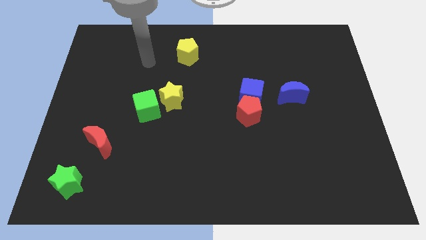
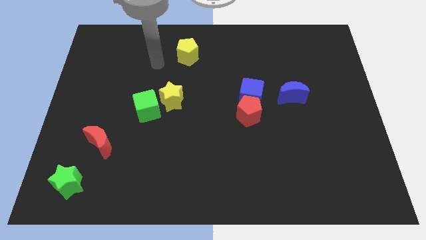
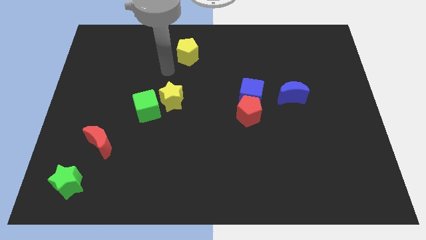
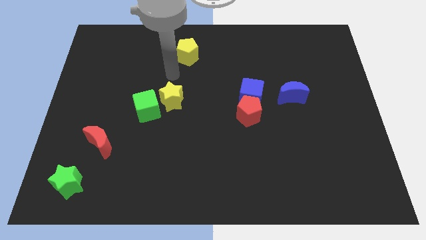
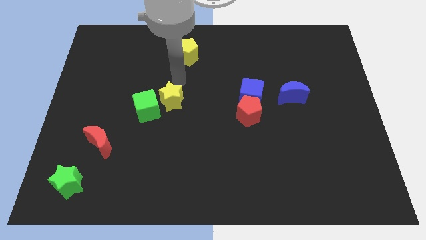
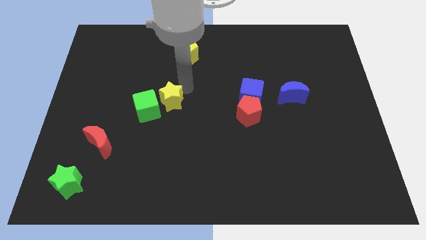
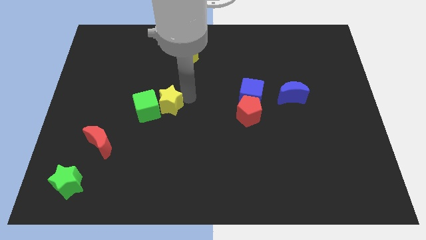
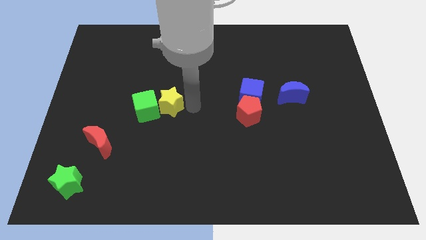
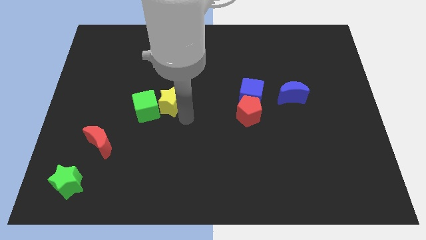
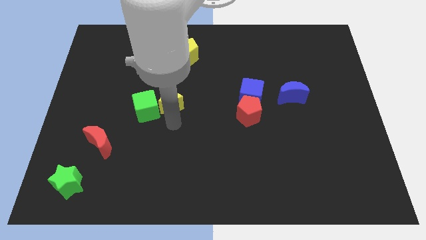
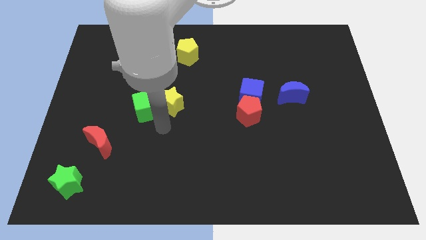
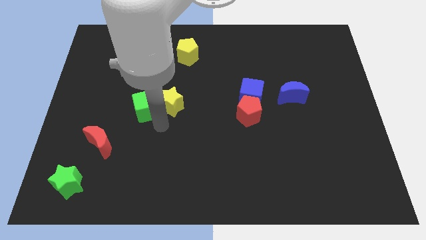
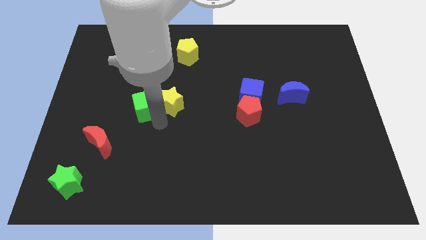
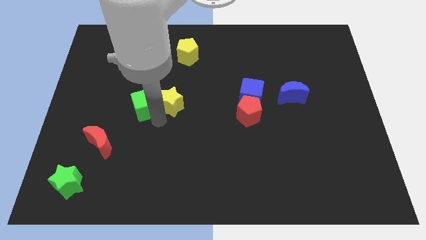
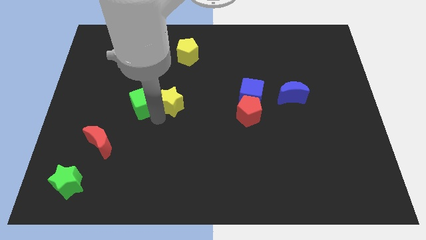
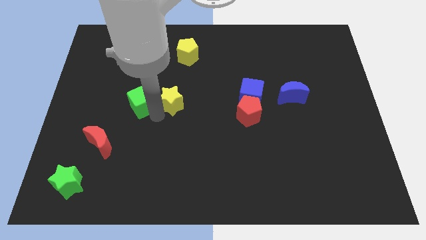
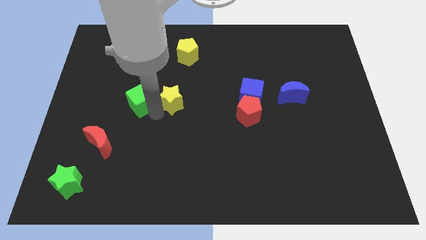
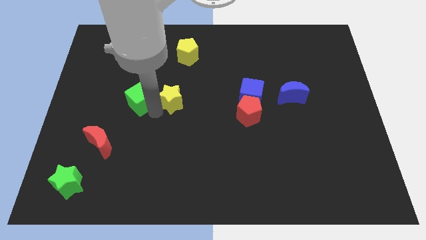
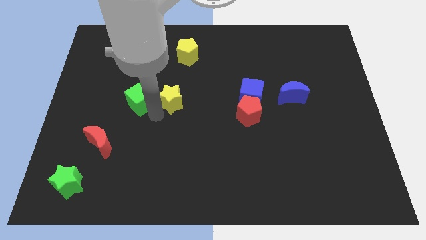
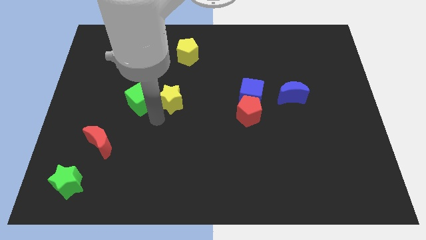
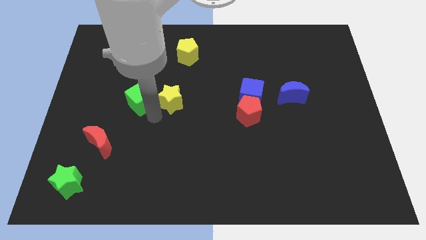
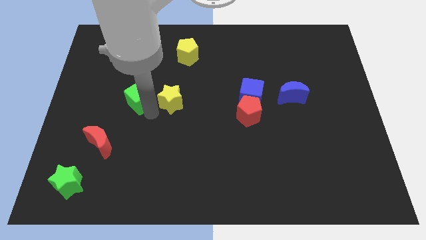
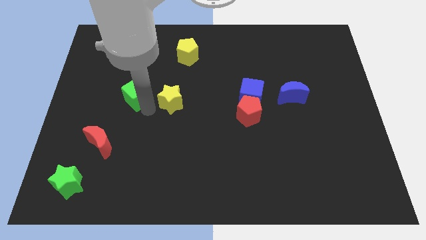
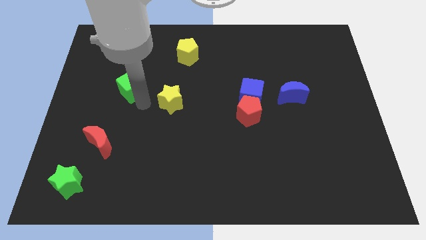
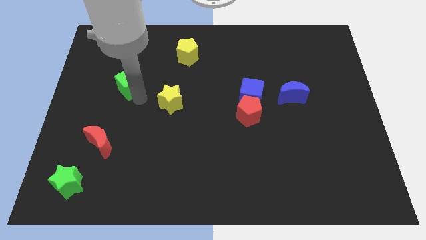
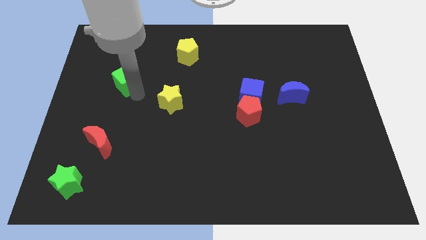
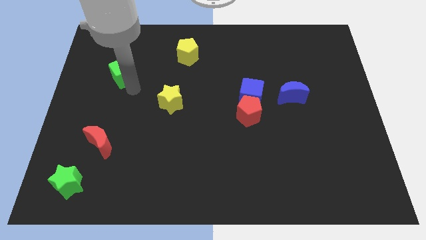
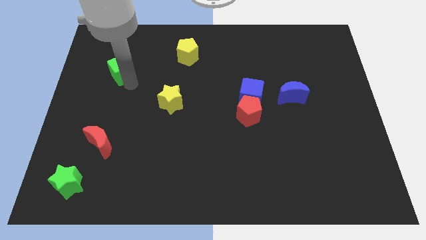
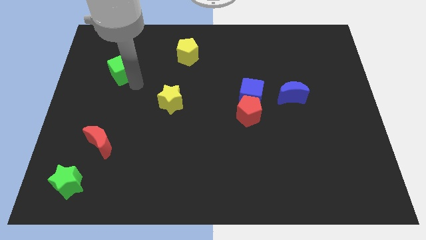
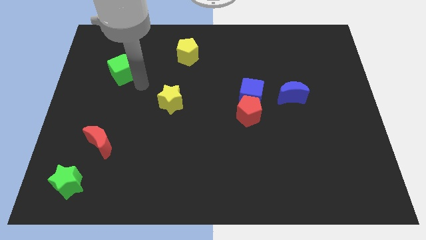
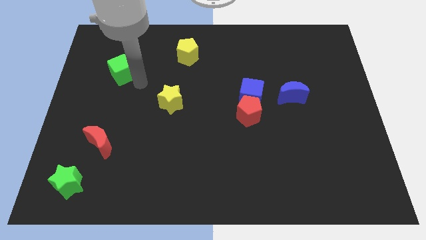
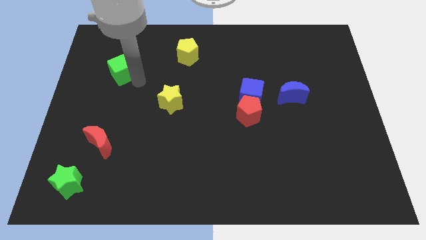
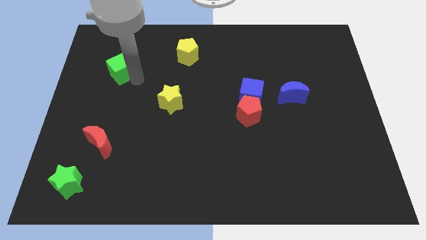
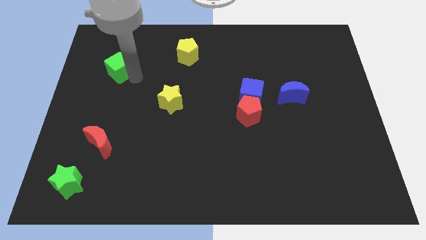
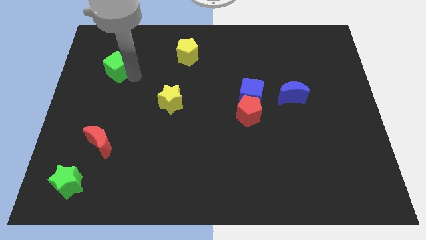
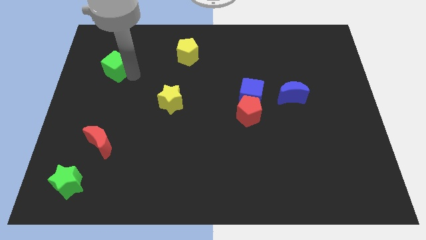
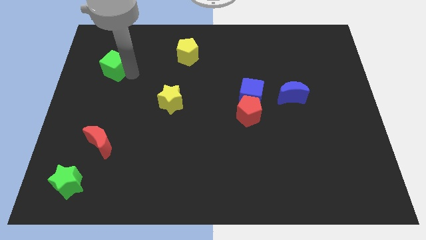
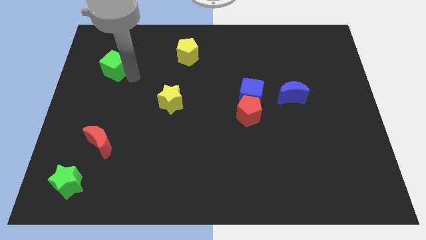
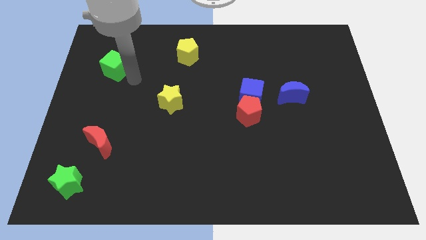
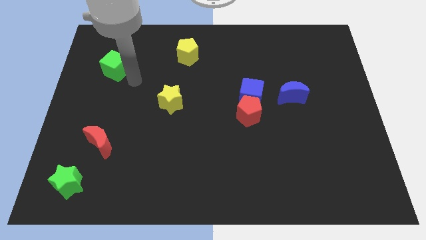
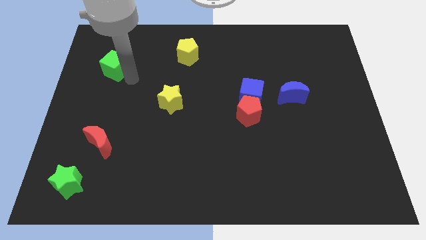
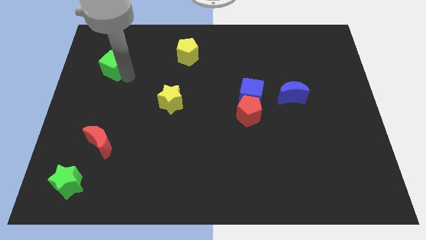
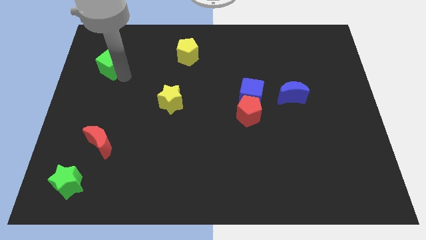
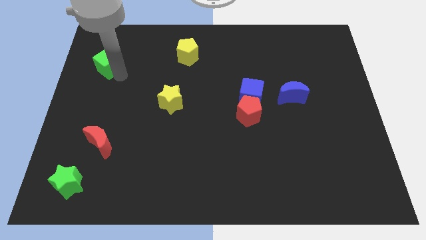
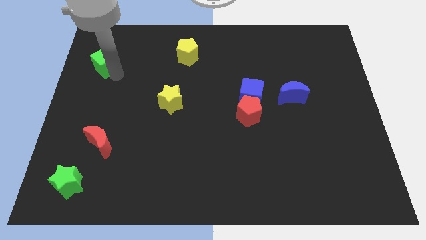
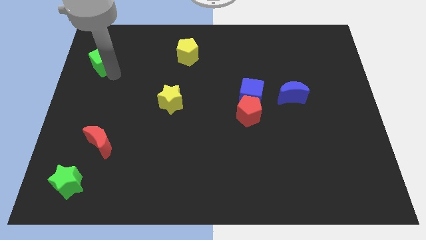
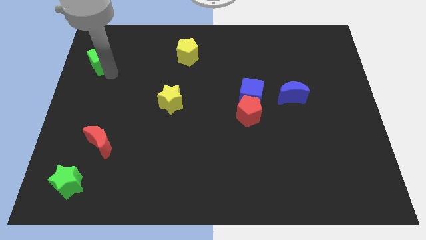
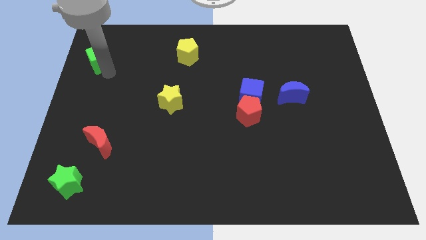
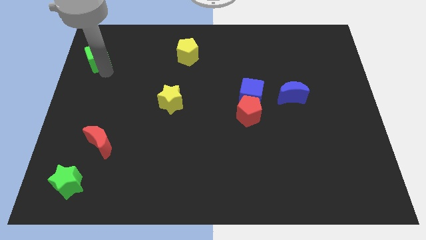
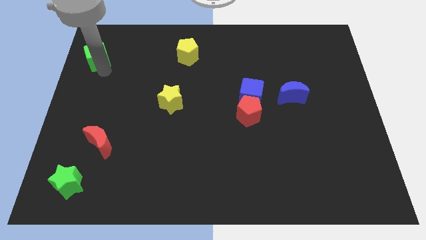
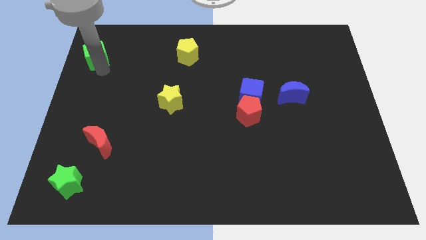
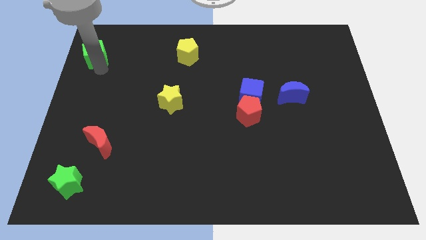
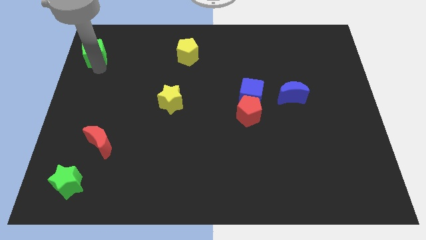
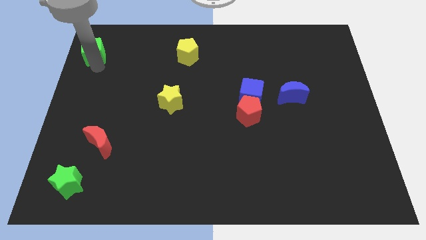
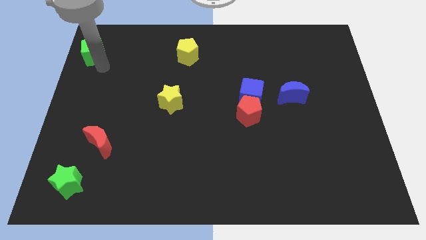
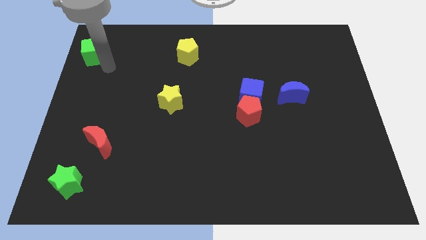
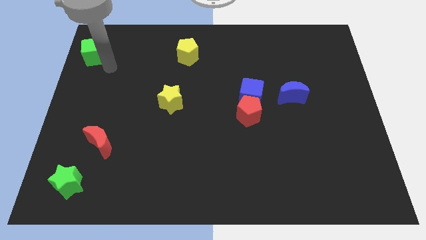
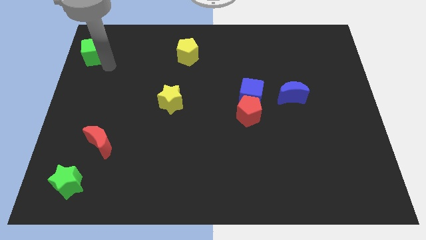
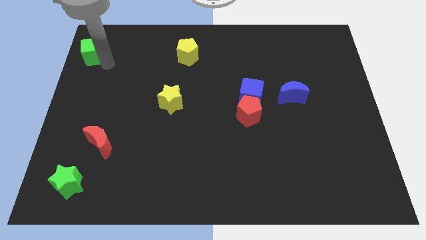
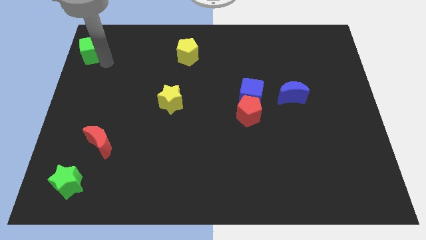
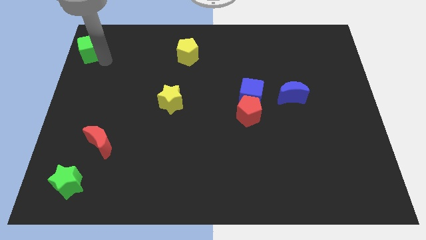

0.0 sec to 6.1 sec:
slide the green cube to the top left
